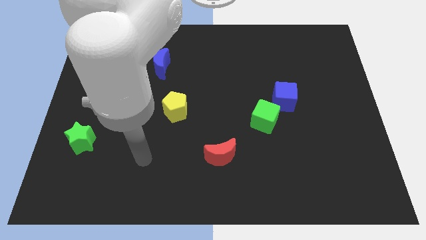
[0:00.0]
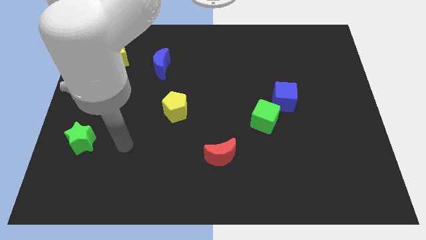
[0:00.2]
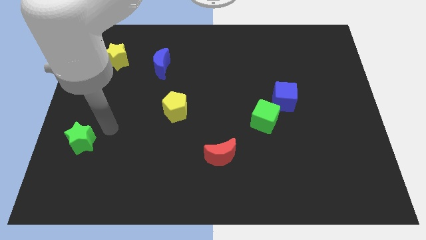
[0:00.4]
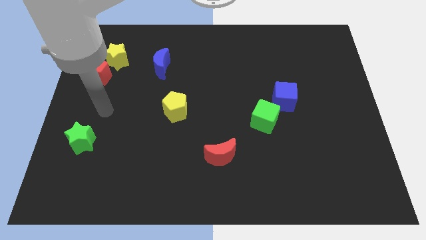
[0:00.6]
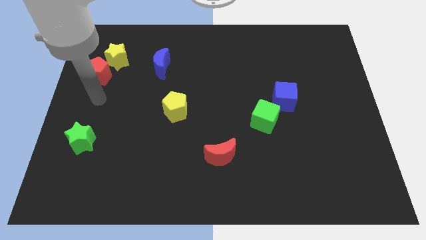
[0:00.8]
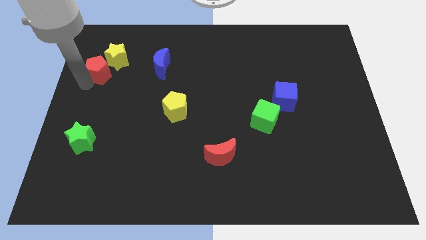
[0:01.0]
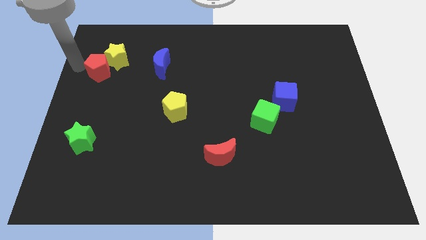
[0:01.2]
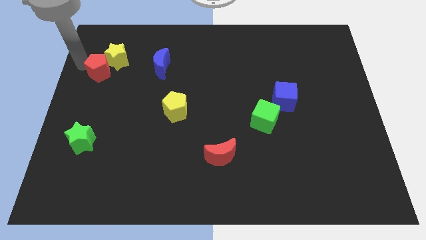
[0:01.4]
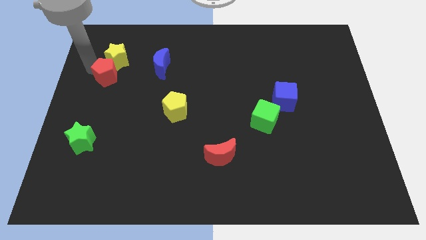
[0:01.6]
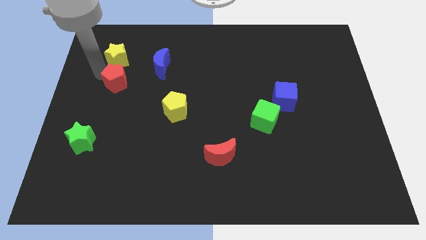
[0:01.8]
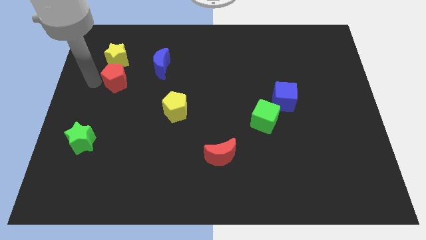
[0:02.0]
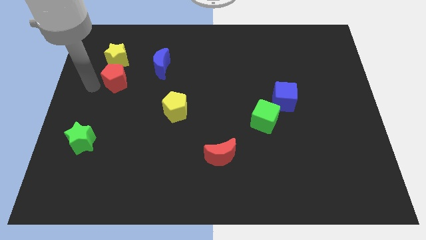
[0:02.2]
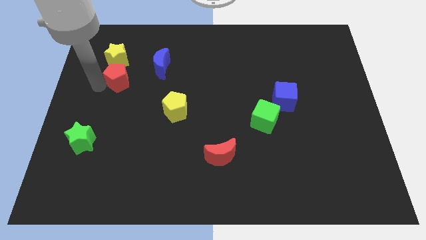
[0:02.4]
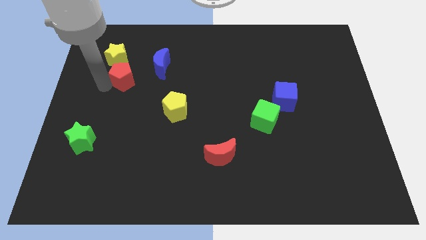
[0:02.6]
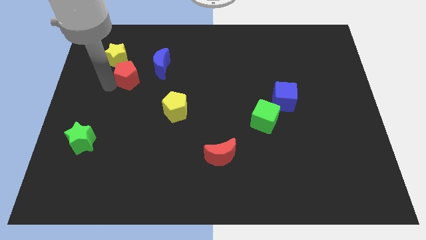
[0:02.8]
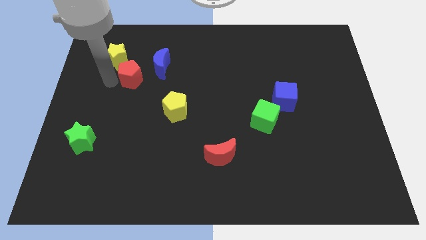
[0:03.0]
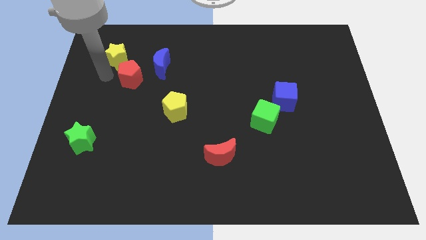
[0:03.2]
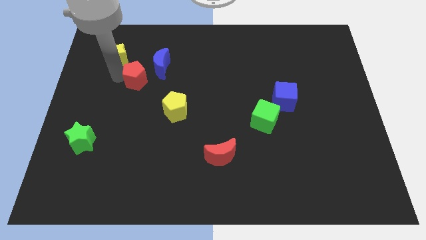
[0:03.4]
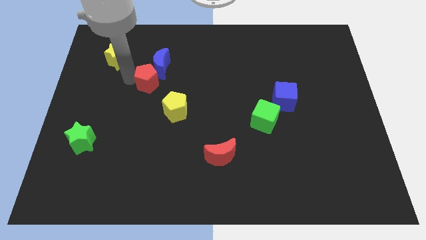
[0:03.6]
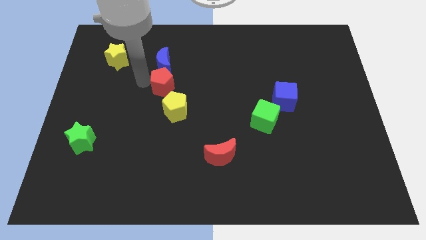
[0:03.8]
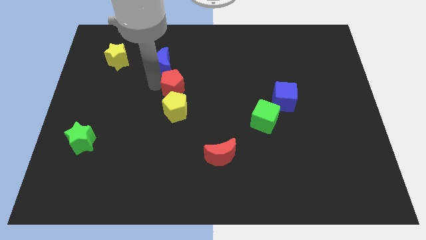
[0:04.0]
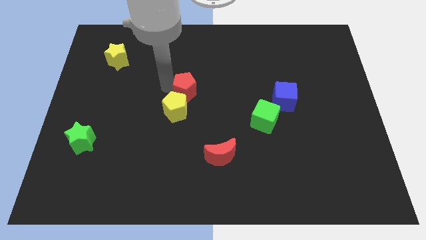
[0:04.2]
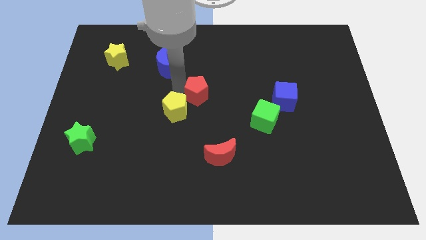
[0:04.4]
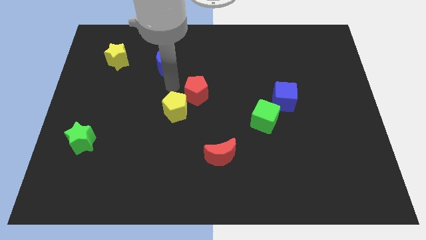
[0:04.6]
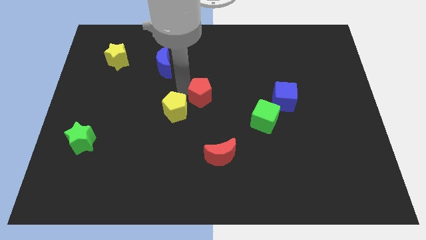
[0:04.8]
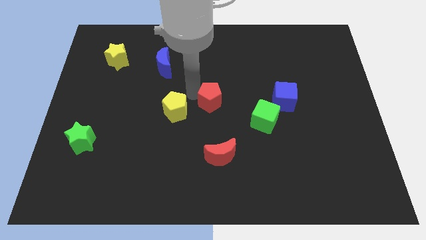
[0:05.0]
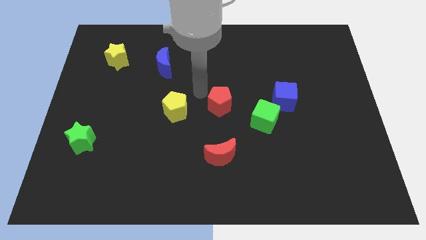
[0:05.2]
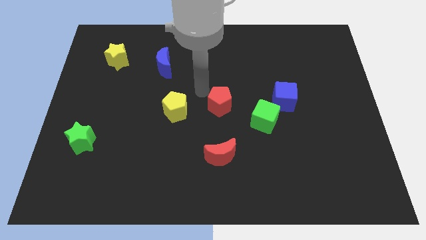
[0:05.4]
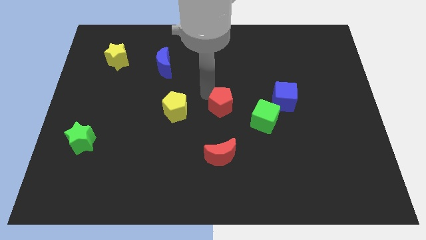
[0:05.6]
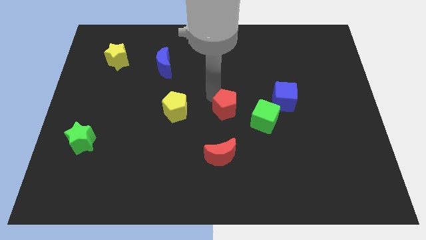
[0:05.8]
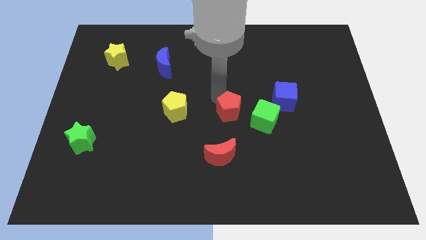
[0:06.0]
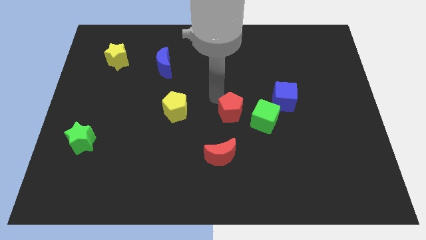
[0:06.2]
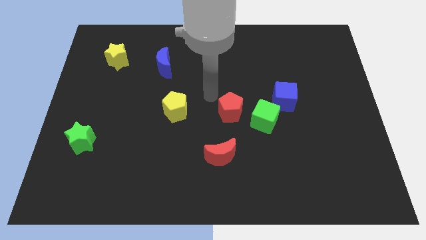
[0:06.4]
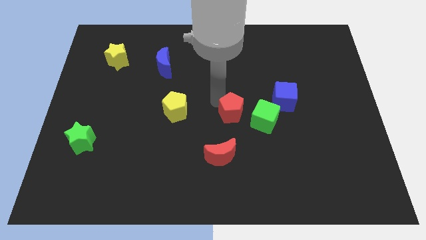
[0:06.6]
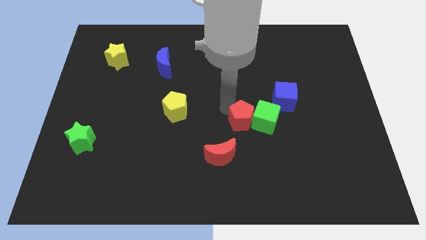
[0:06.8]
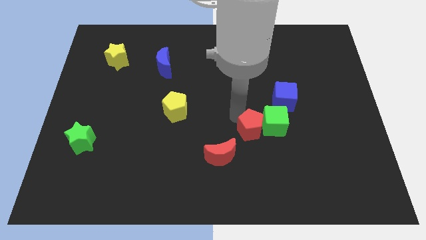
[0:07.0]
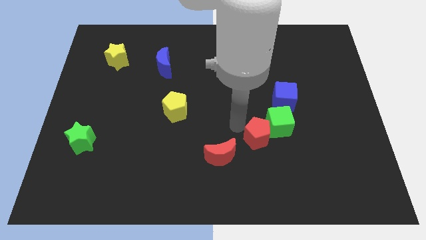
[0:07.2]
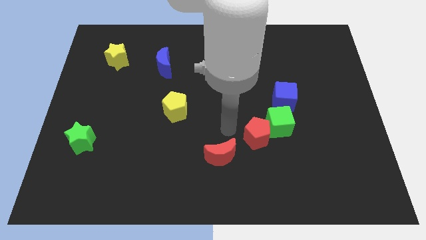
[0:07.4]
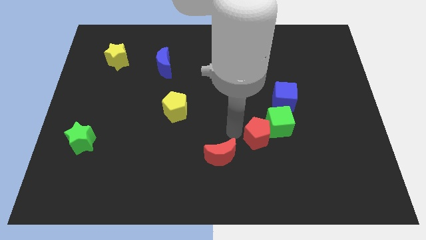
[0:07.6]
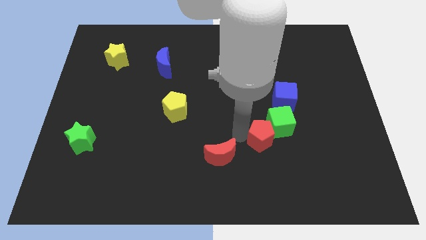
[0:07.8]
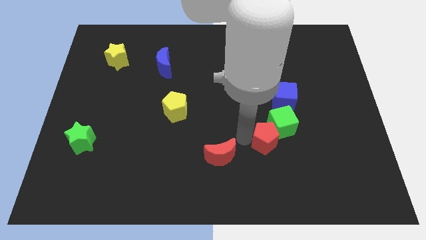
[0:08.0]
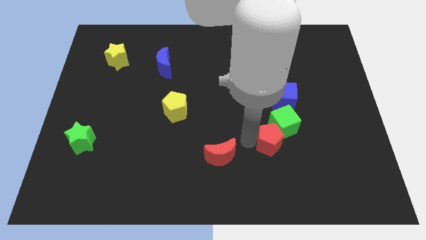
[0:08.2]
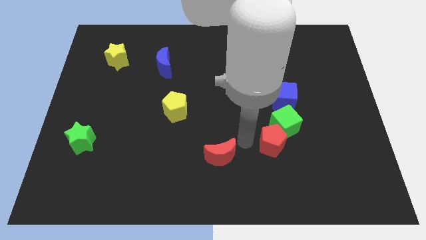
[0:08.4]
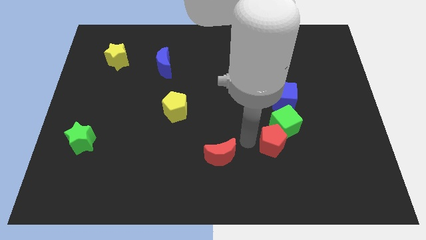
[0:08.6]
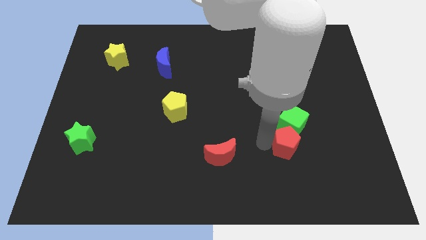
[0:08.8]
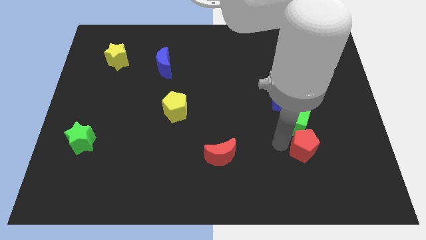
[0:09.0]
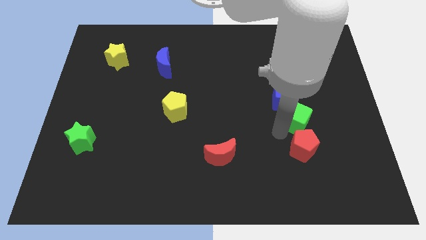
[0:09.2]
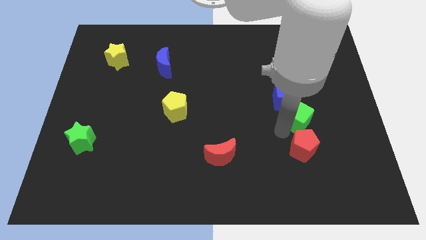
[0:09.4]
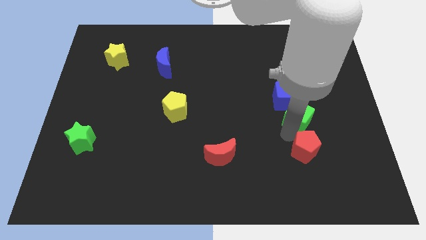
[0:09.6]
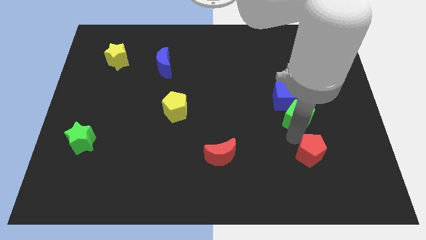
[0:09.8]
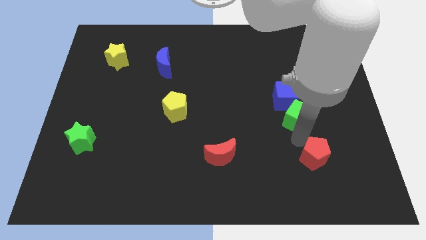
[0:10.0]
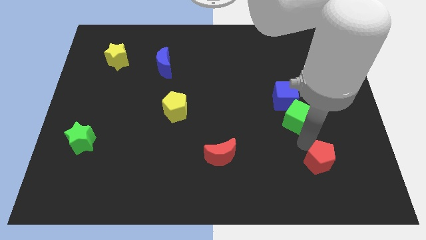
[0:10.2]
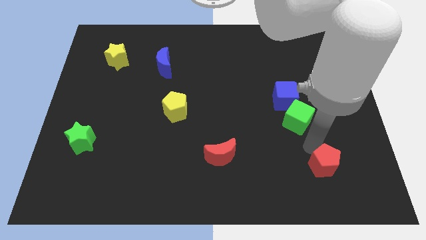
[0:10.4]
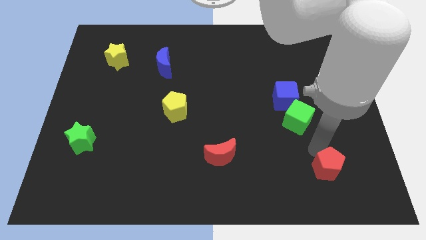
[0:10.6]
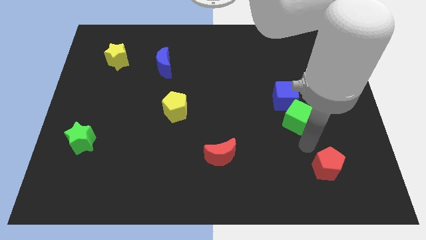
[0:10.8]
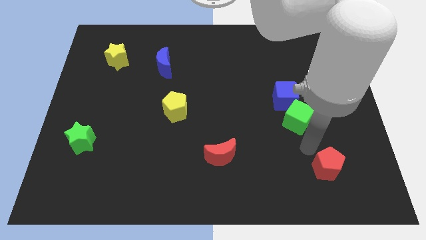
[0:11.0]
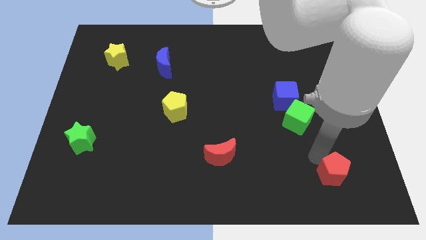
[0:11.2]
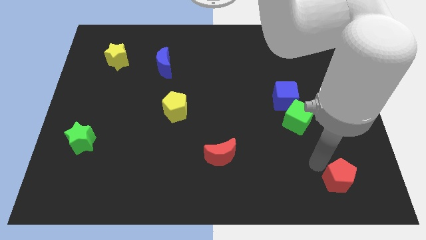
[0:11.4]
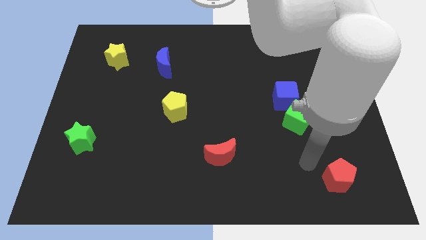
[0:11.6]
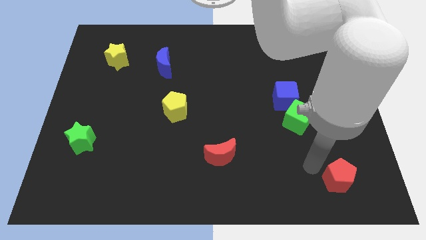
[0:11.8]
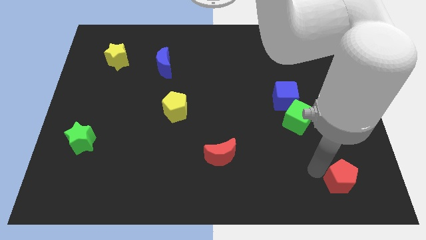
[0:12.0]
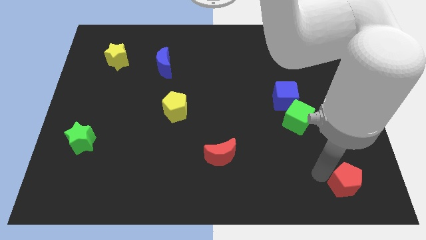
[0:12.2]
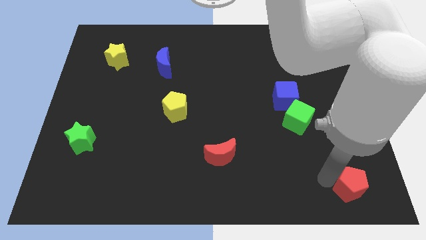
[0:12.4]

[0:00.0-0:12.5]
push the red pentagon to the bottom right

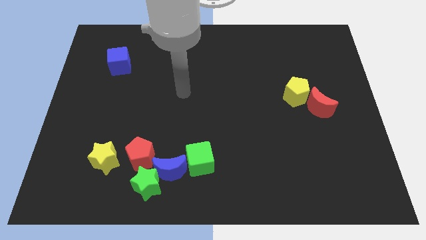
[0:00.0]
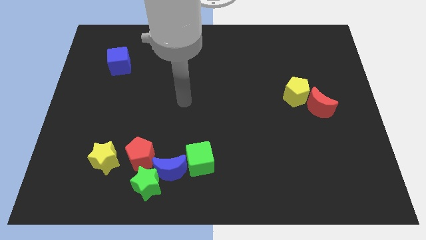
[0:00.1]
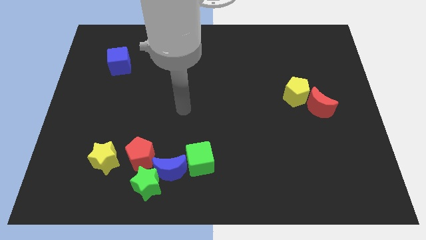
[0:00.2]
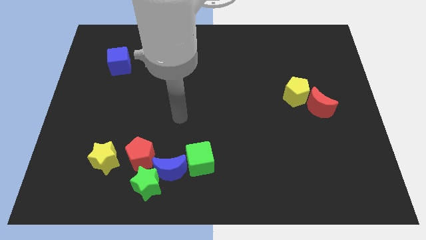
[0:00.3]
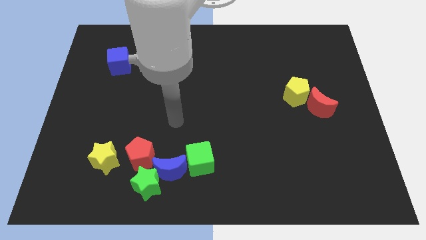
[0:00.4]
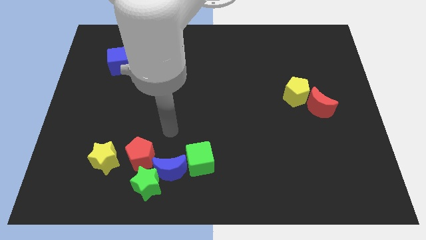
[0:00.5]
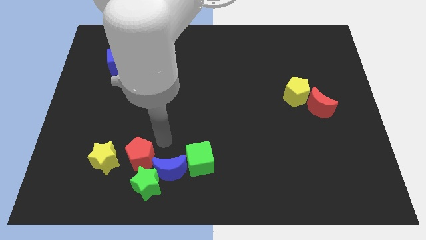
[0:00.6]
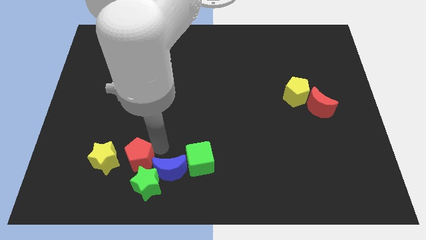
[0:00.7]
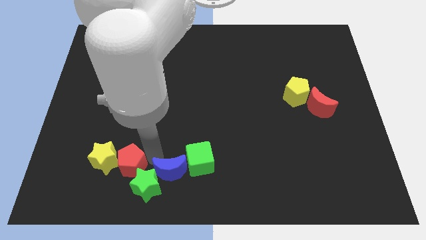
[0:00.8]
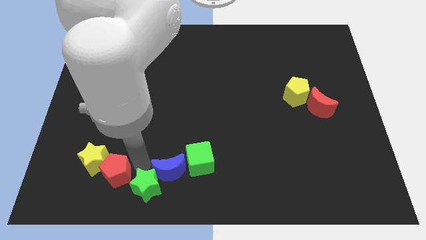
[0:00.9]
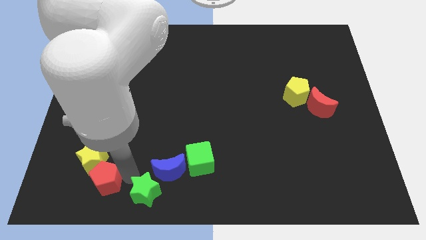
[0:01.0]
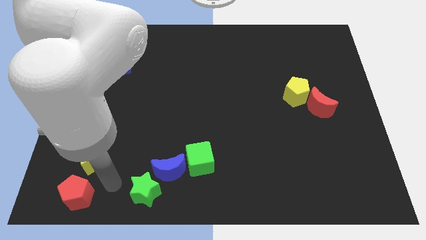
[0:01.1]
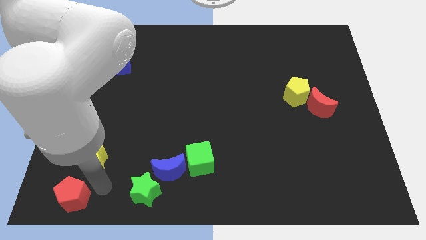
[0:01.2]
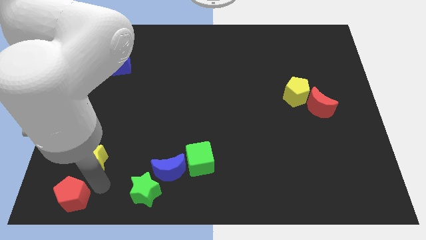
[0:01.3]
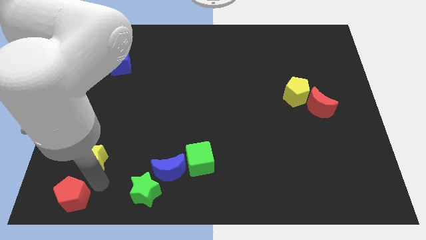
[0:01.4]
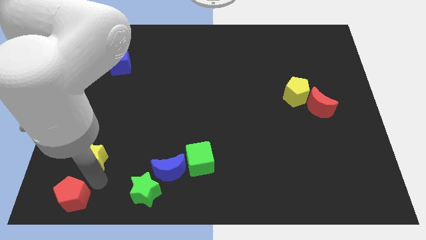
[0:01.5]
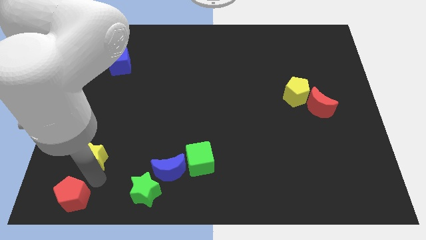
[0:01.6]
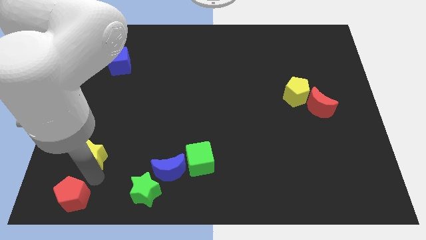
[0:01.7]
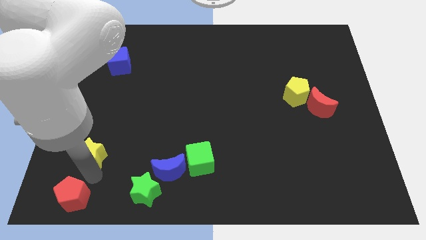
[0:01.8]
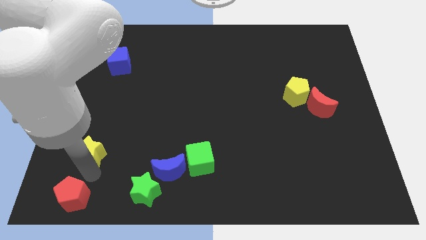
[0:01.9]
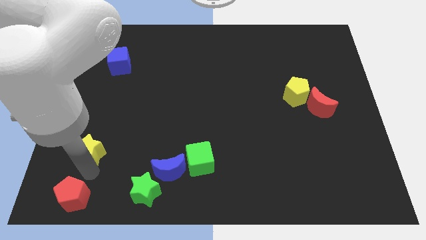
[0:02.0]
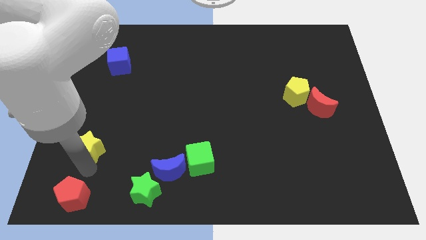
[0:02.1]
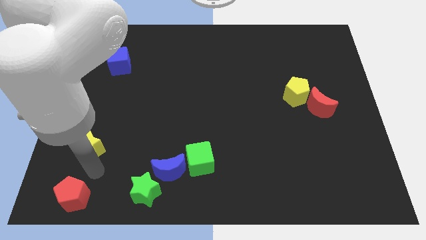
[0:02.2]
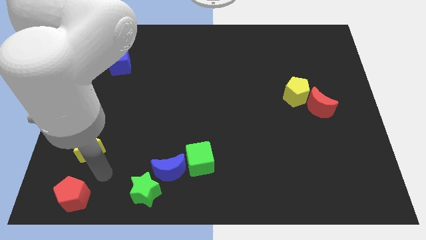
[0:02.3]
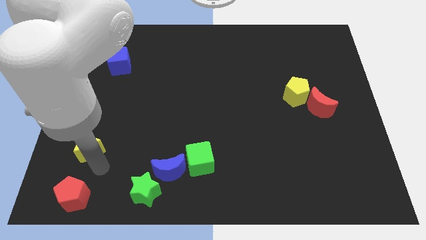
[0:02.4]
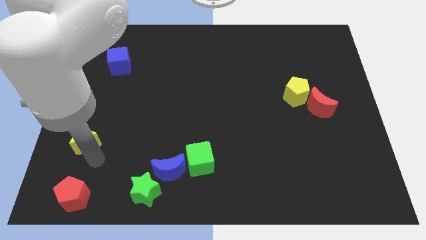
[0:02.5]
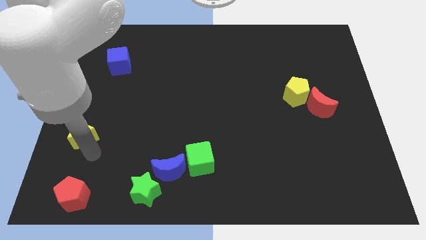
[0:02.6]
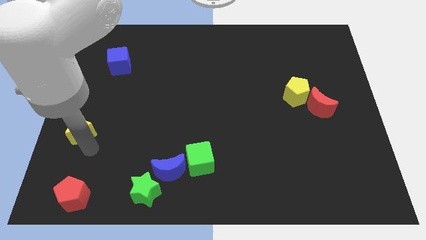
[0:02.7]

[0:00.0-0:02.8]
move the yellow star to the left side
